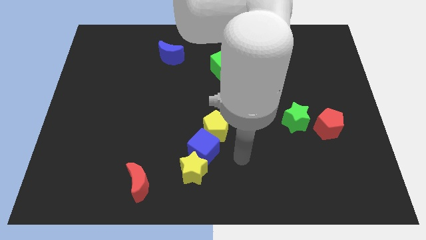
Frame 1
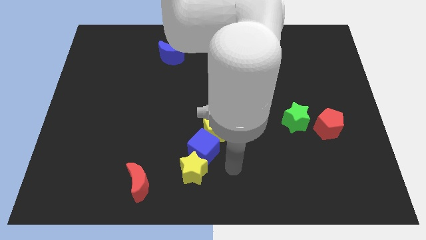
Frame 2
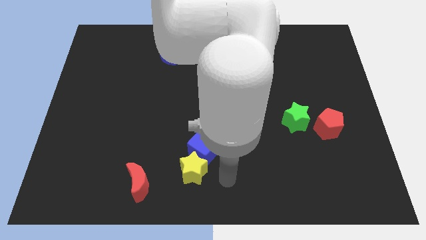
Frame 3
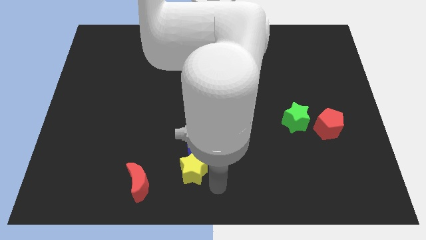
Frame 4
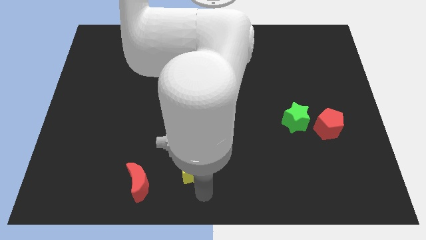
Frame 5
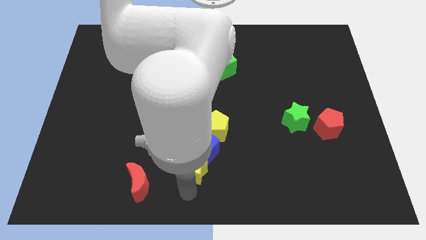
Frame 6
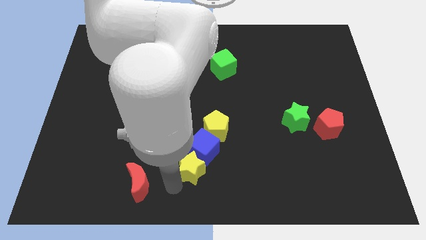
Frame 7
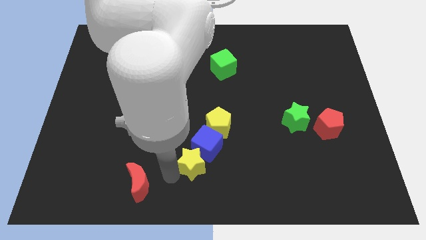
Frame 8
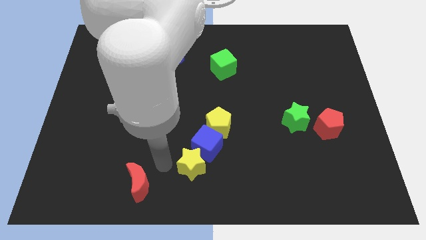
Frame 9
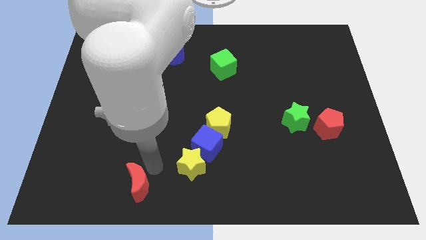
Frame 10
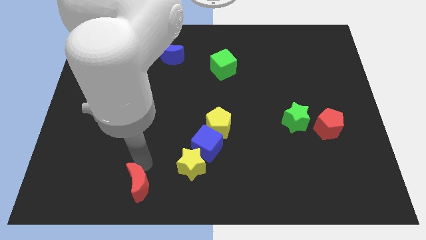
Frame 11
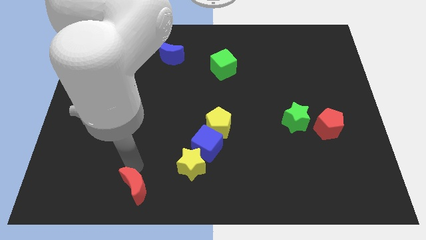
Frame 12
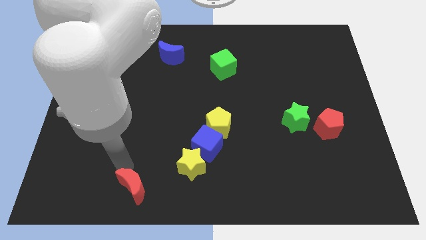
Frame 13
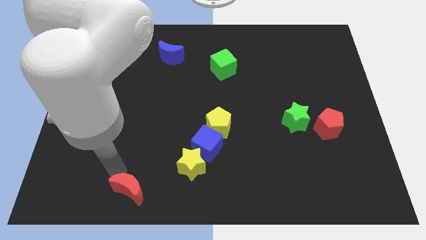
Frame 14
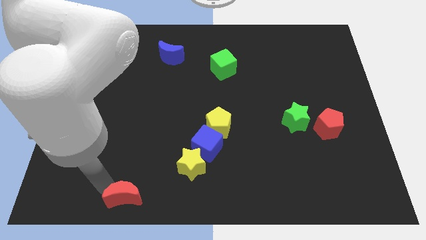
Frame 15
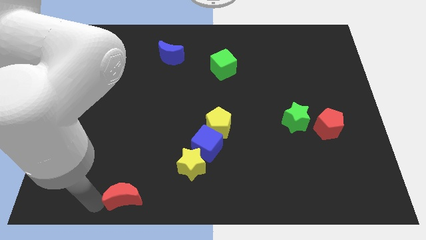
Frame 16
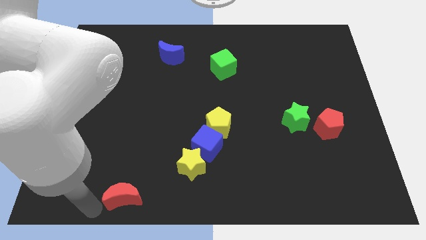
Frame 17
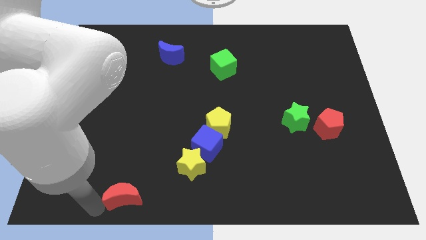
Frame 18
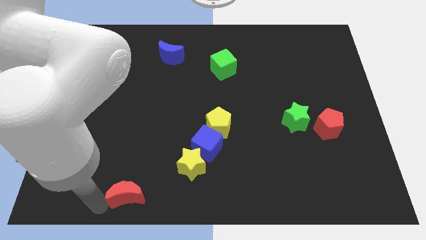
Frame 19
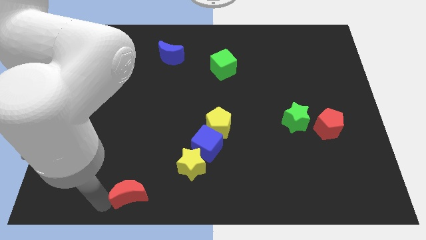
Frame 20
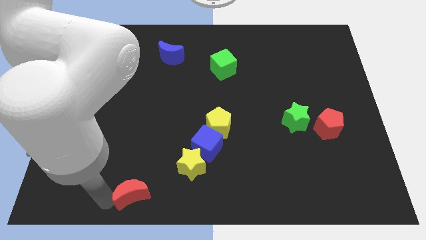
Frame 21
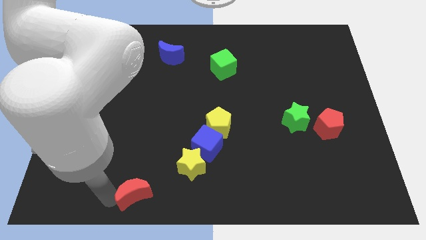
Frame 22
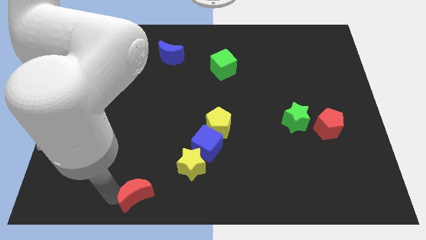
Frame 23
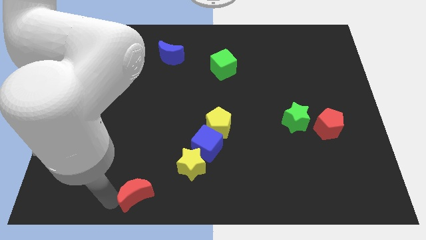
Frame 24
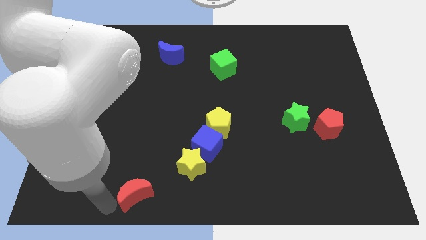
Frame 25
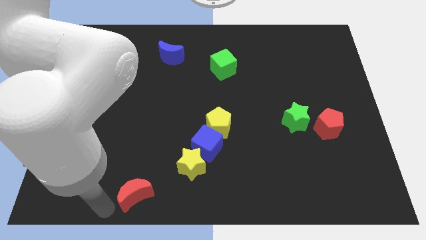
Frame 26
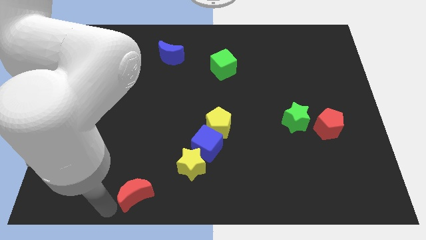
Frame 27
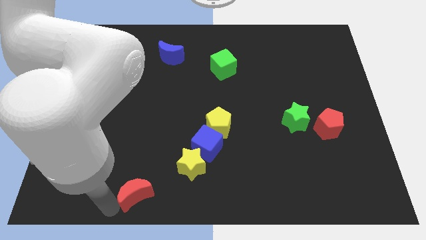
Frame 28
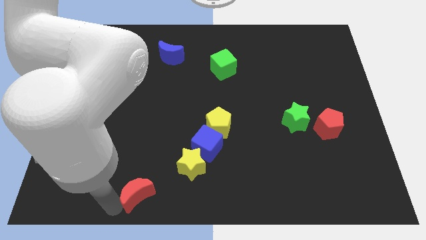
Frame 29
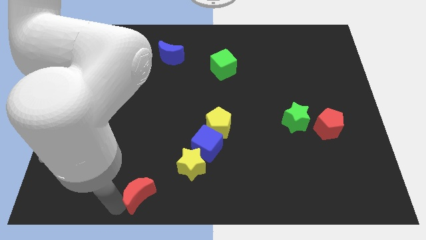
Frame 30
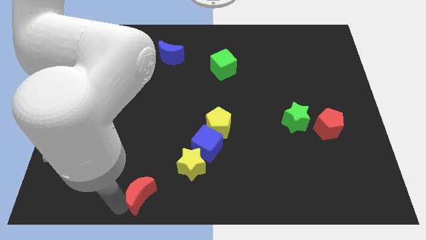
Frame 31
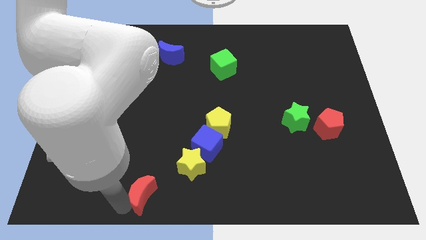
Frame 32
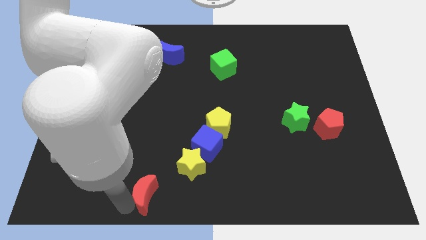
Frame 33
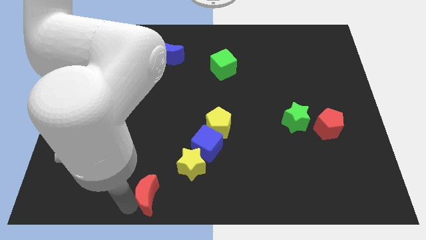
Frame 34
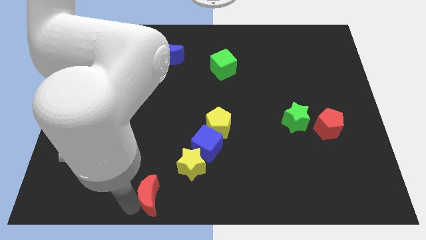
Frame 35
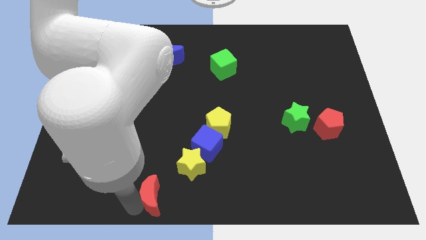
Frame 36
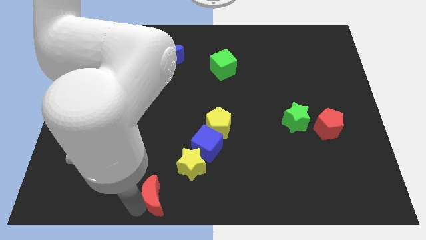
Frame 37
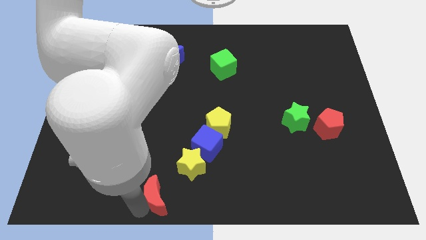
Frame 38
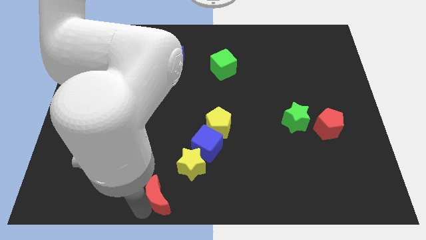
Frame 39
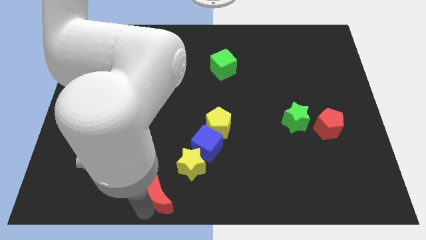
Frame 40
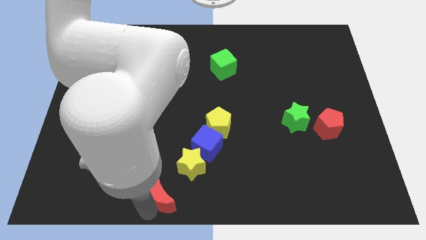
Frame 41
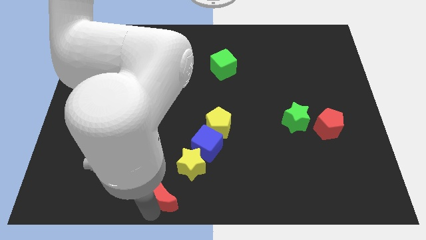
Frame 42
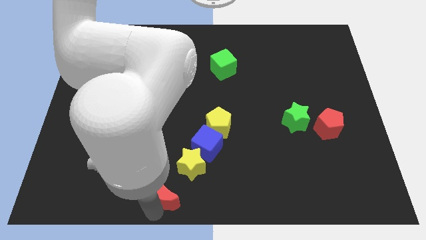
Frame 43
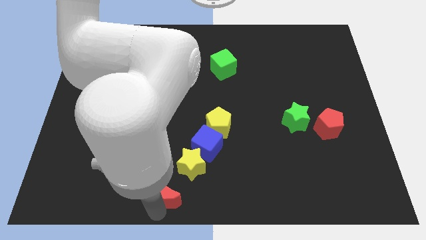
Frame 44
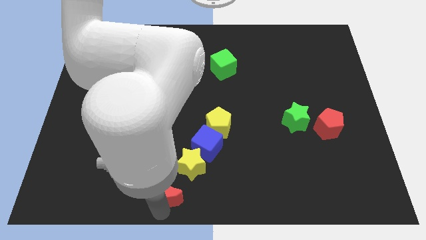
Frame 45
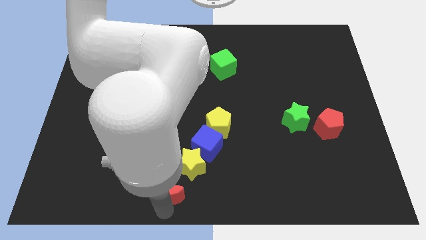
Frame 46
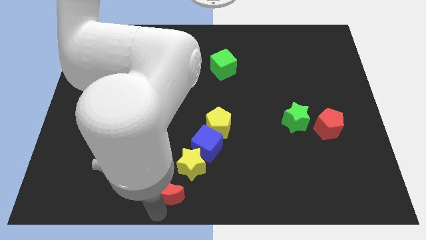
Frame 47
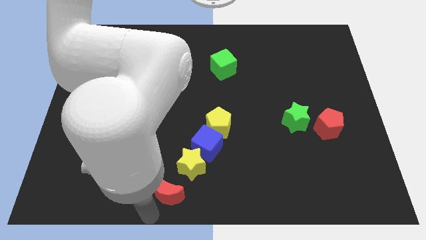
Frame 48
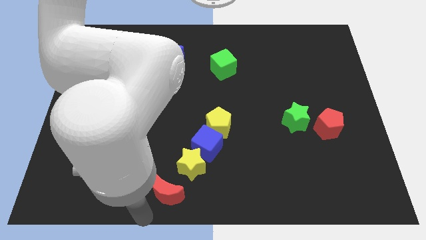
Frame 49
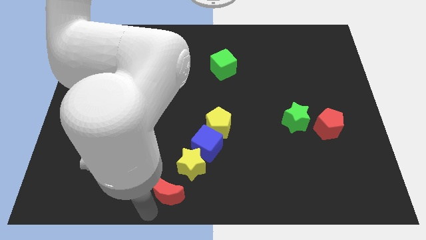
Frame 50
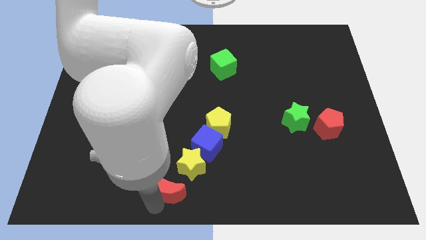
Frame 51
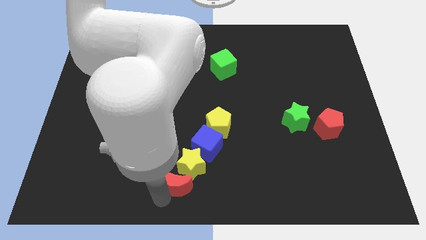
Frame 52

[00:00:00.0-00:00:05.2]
push the red moon next to the yellow star
